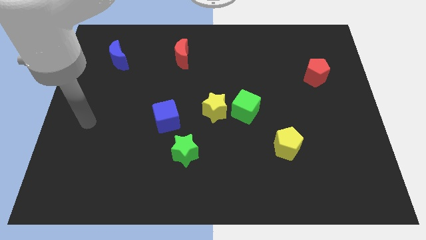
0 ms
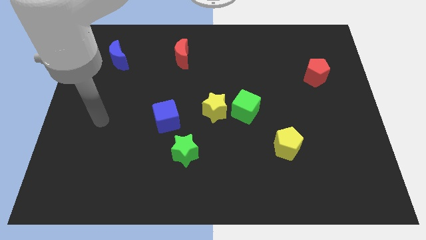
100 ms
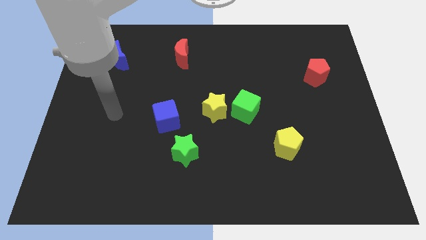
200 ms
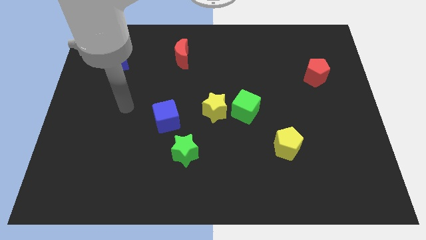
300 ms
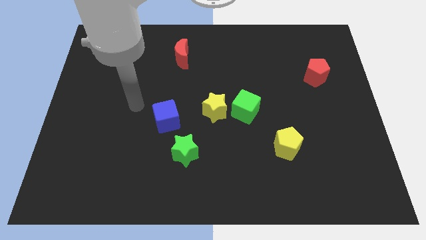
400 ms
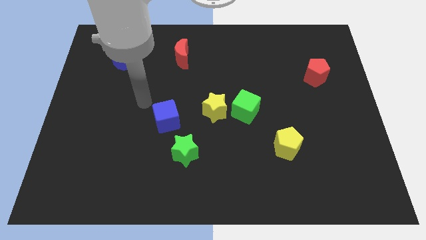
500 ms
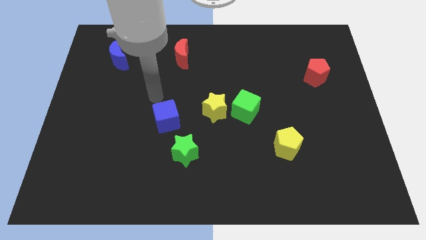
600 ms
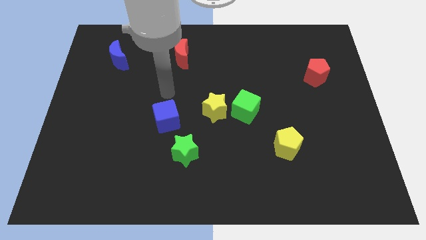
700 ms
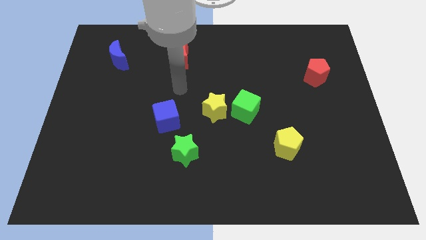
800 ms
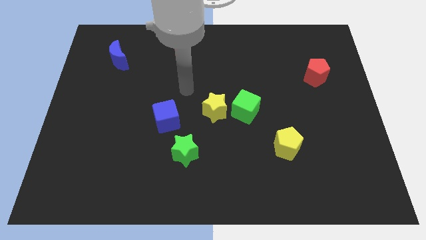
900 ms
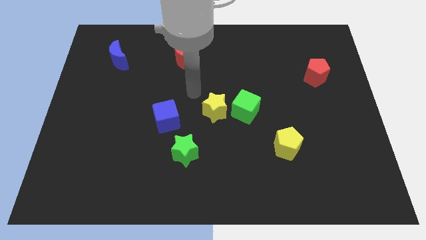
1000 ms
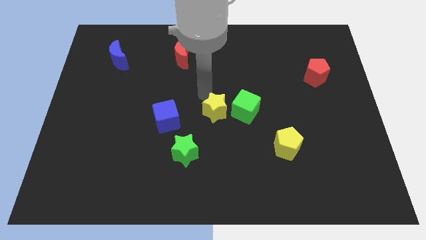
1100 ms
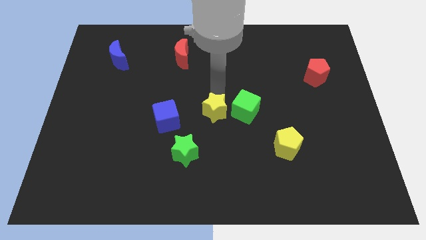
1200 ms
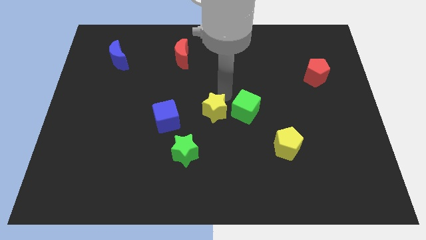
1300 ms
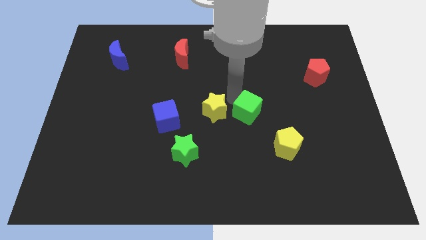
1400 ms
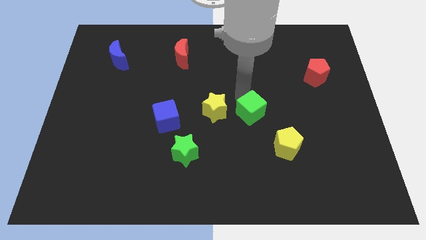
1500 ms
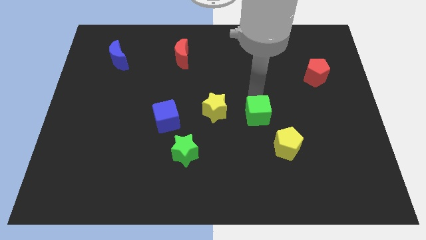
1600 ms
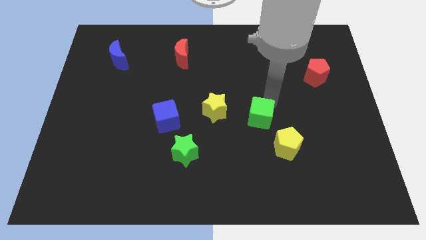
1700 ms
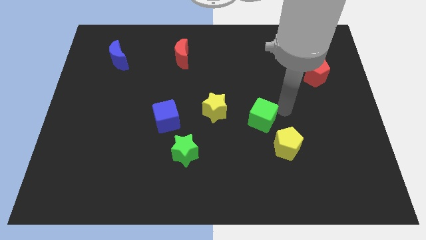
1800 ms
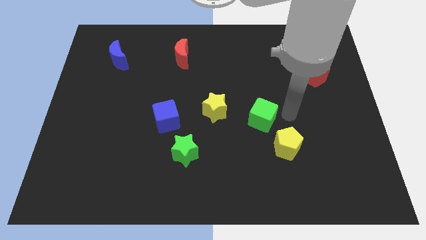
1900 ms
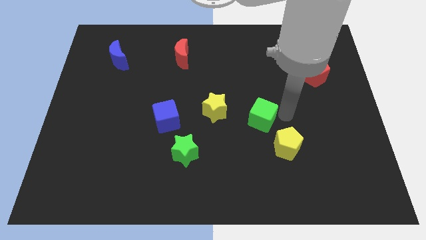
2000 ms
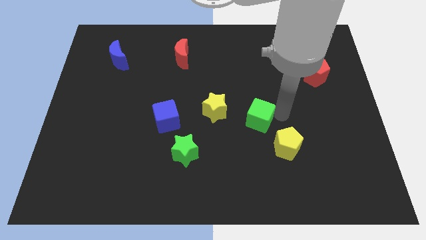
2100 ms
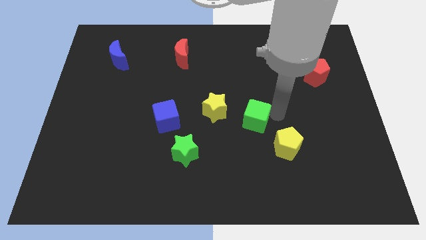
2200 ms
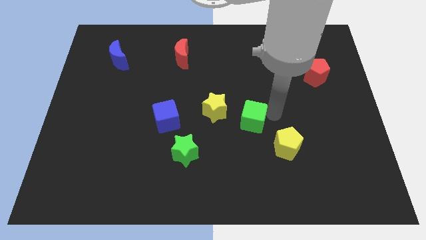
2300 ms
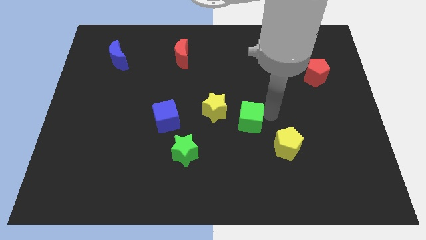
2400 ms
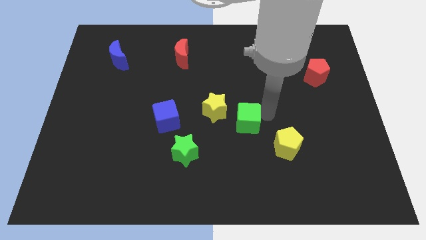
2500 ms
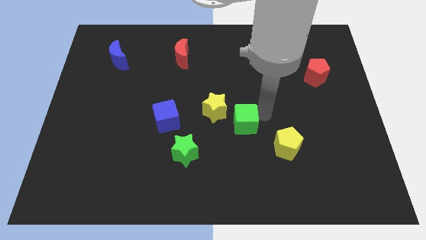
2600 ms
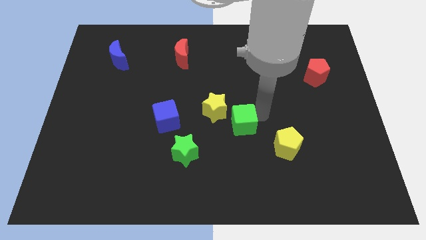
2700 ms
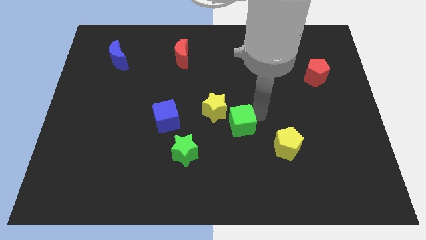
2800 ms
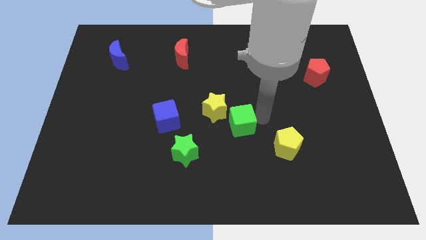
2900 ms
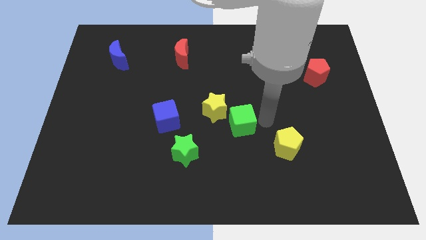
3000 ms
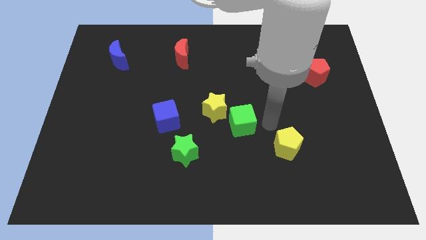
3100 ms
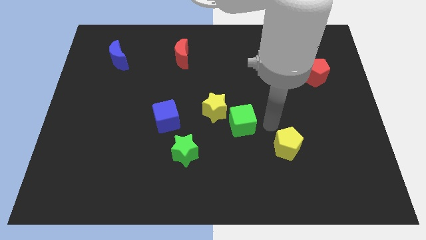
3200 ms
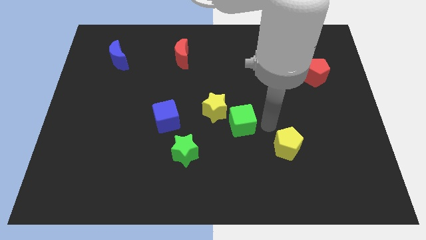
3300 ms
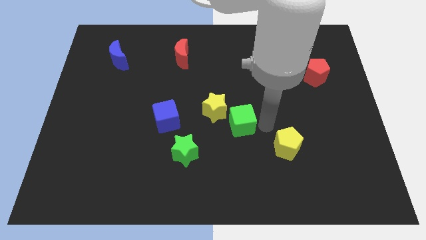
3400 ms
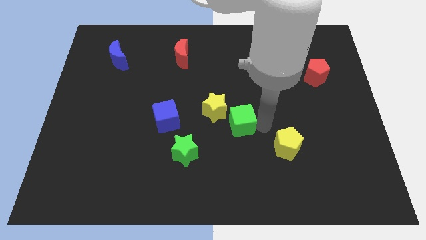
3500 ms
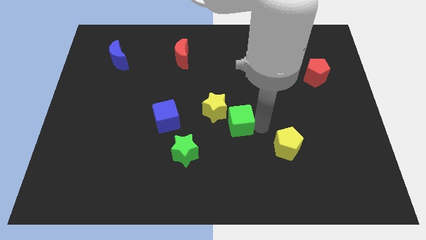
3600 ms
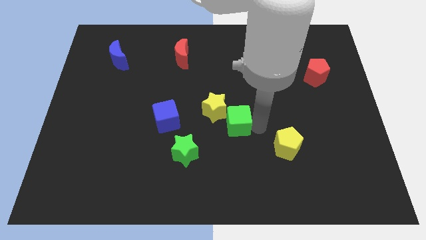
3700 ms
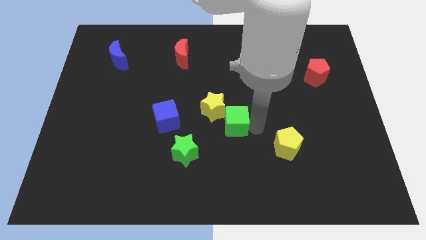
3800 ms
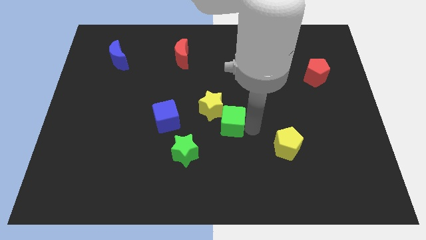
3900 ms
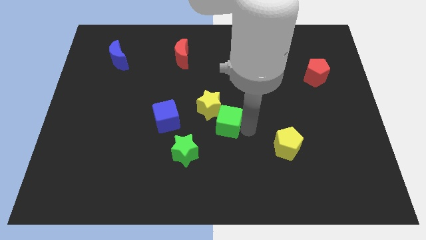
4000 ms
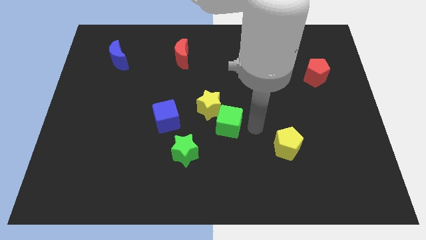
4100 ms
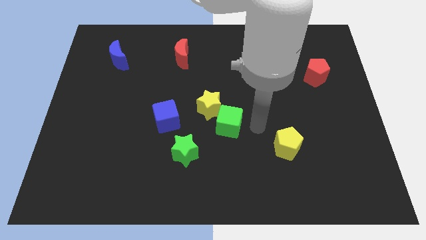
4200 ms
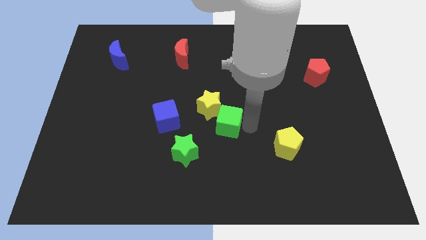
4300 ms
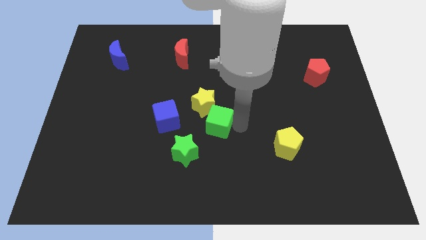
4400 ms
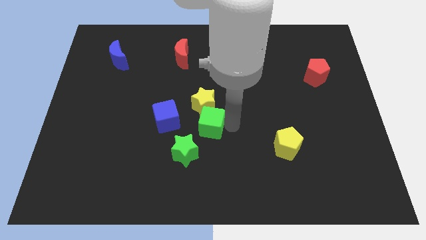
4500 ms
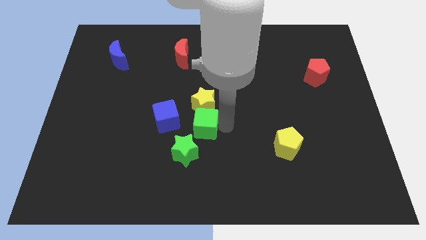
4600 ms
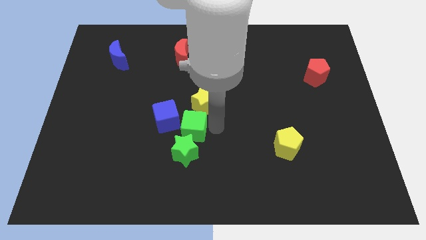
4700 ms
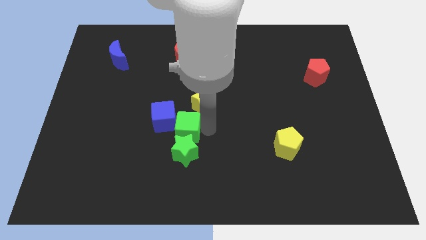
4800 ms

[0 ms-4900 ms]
move the green cube to the blue cube

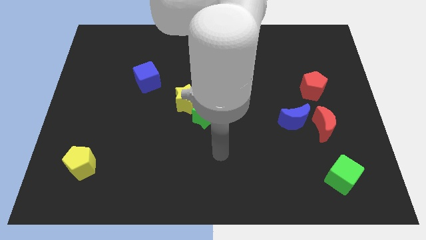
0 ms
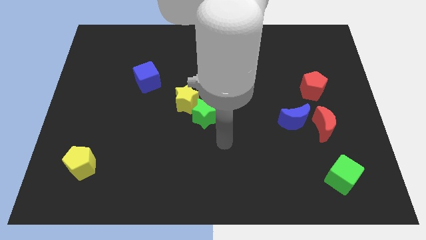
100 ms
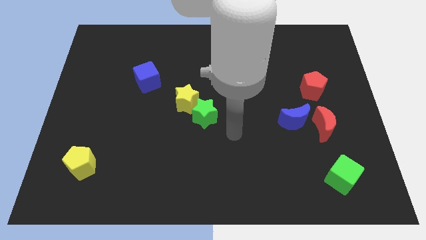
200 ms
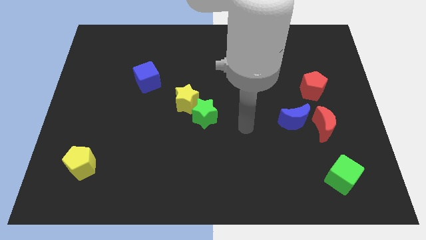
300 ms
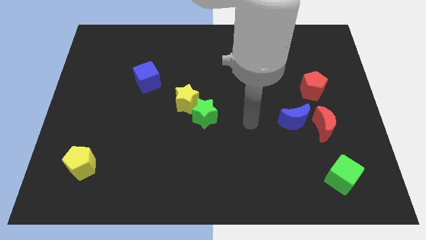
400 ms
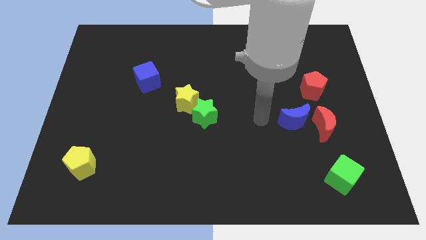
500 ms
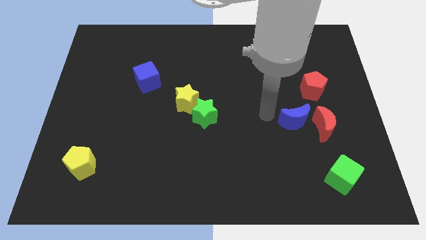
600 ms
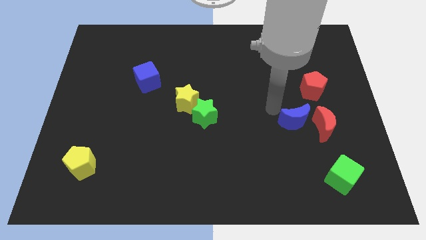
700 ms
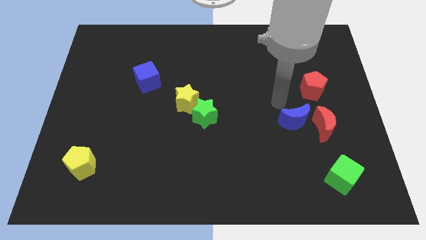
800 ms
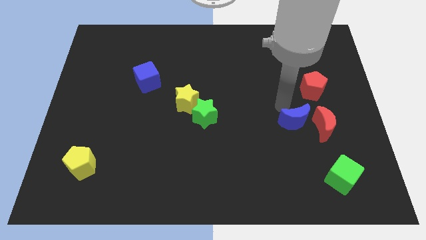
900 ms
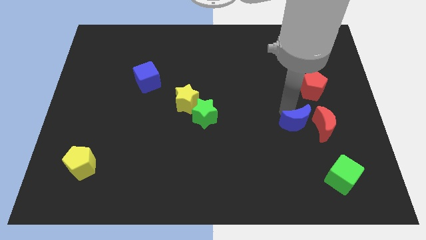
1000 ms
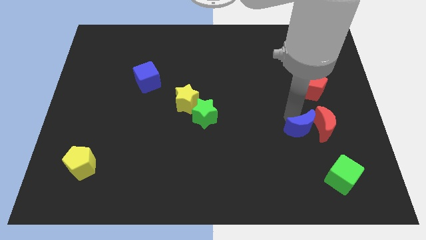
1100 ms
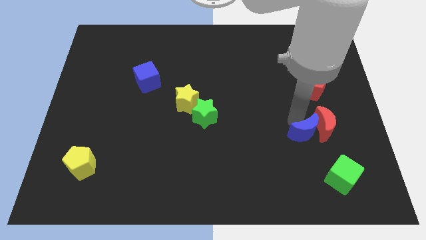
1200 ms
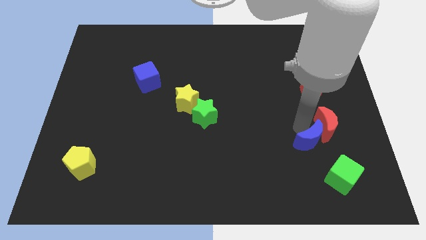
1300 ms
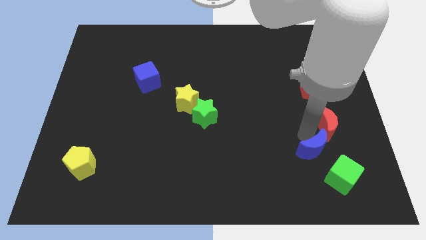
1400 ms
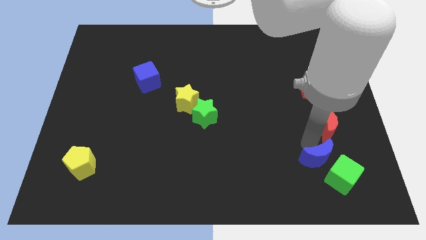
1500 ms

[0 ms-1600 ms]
slide the blue moon to the green cube
